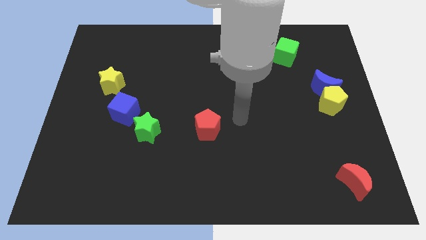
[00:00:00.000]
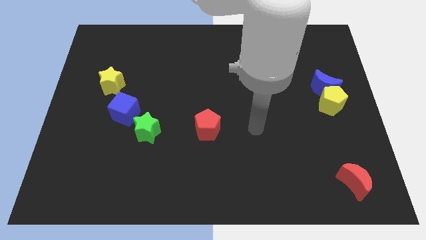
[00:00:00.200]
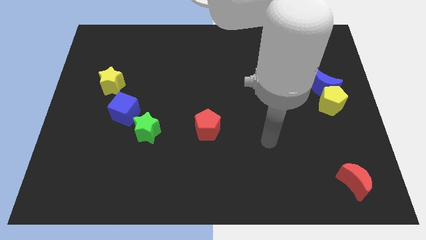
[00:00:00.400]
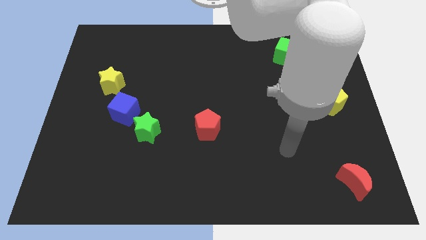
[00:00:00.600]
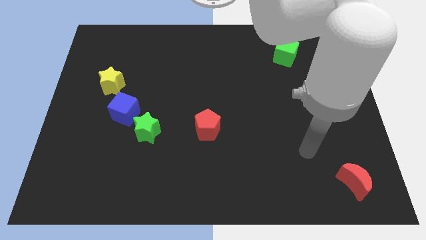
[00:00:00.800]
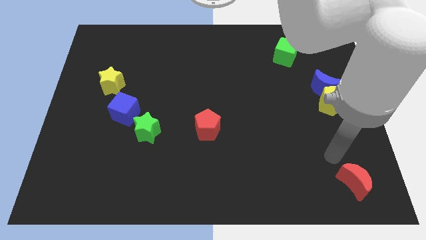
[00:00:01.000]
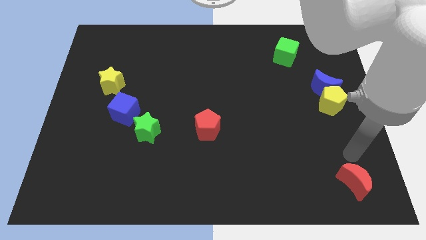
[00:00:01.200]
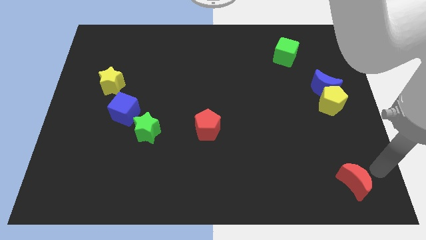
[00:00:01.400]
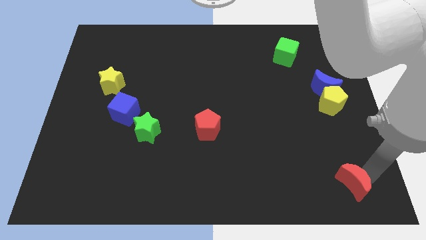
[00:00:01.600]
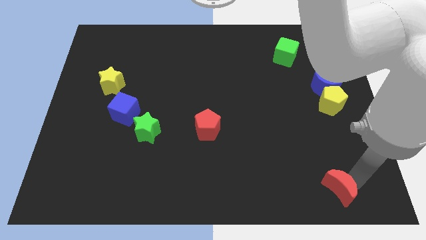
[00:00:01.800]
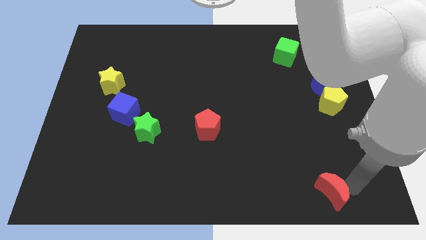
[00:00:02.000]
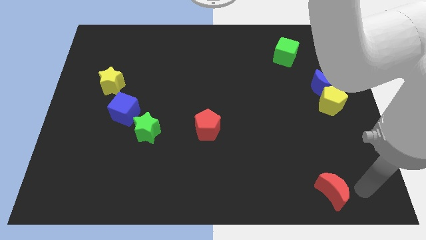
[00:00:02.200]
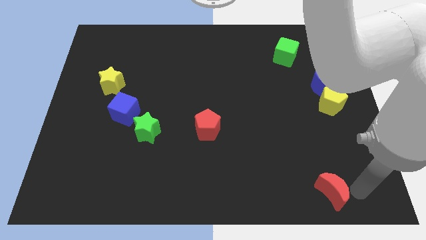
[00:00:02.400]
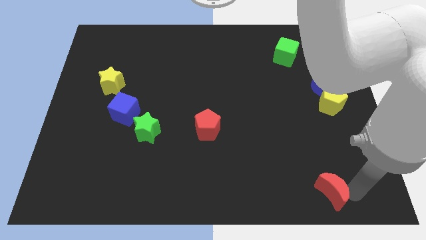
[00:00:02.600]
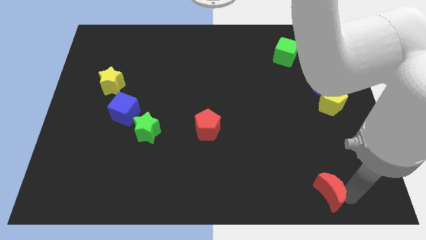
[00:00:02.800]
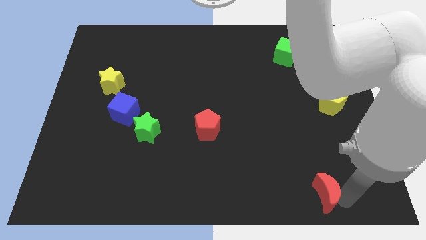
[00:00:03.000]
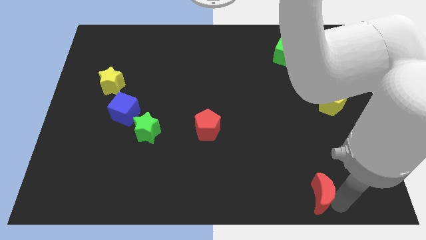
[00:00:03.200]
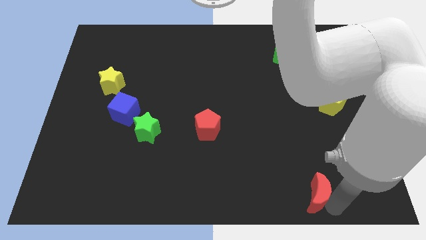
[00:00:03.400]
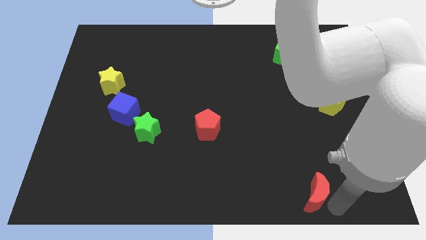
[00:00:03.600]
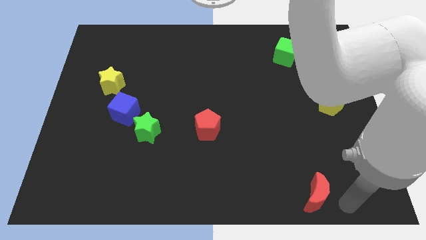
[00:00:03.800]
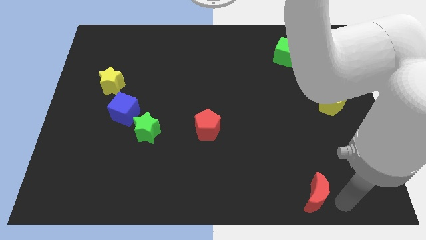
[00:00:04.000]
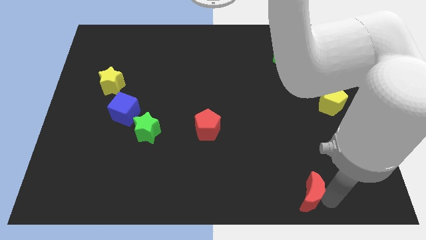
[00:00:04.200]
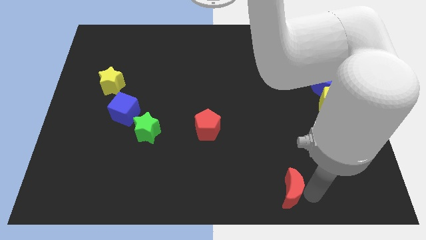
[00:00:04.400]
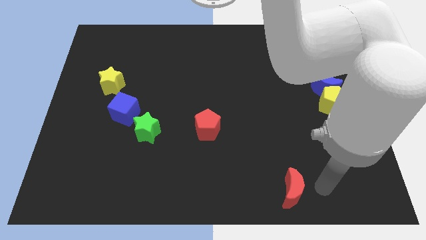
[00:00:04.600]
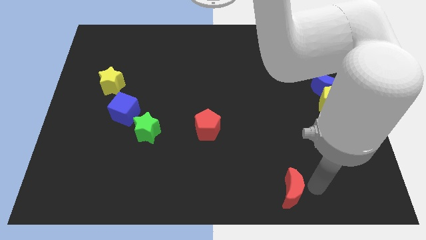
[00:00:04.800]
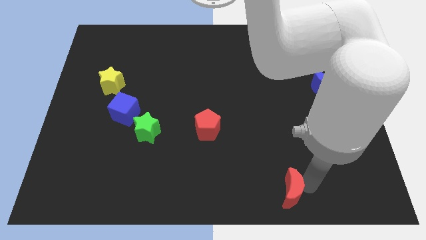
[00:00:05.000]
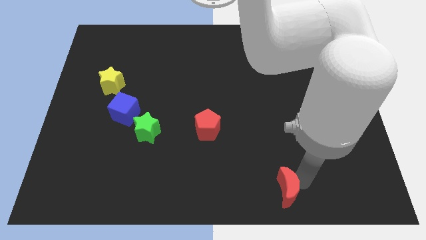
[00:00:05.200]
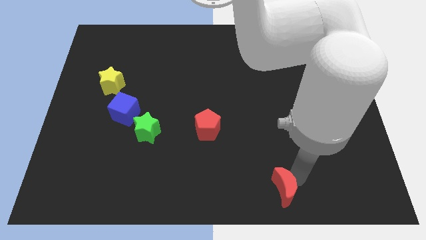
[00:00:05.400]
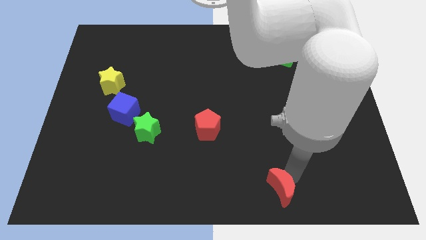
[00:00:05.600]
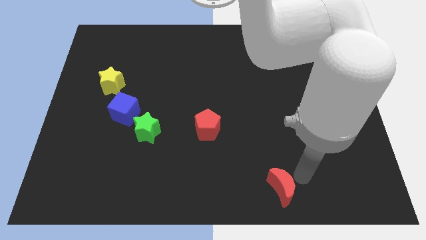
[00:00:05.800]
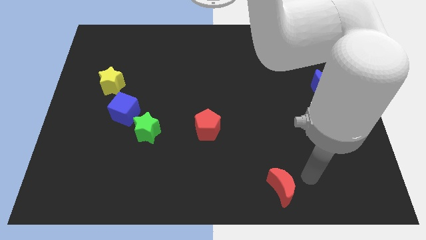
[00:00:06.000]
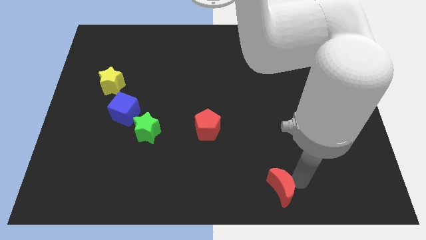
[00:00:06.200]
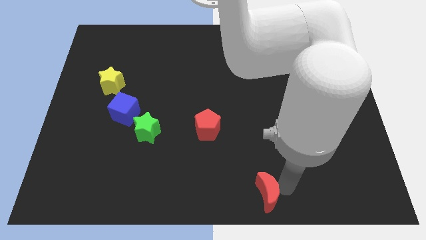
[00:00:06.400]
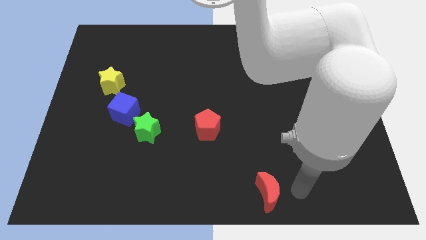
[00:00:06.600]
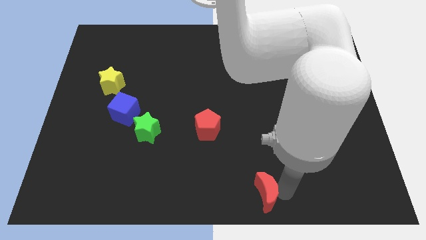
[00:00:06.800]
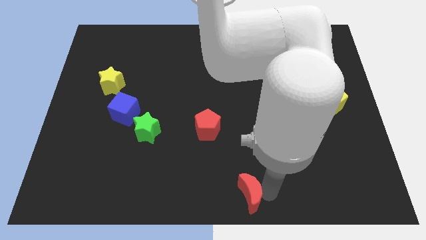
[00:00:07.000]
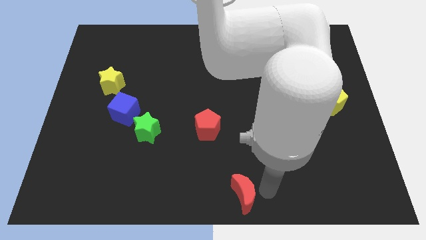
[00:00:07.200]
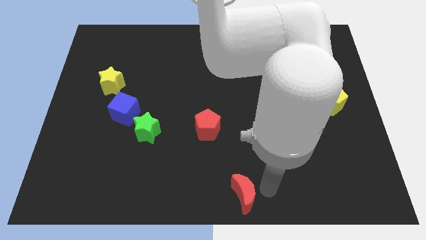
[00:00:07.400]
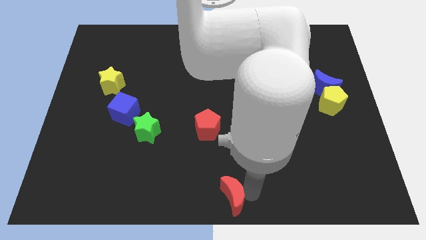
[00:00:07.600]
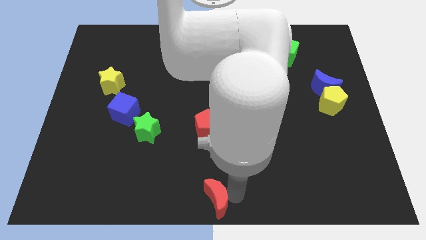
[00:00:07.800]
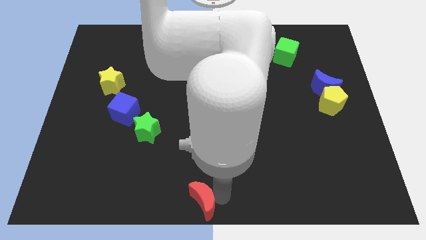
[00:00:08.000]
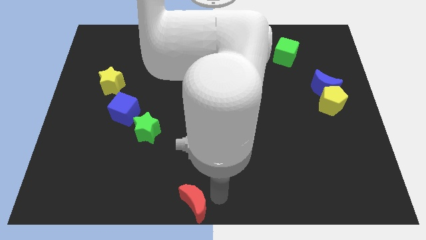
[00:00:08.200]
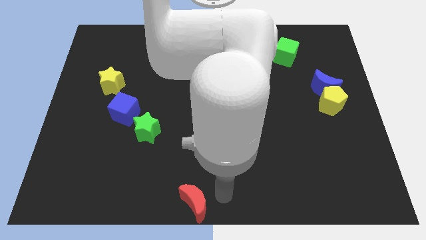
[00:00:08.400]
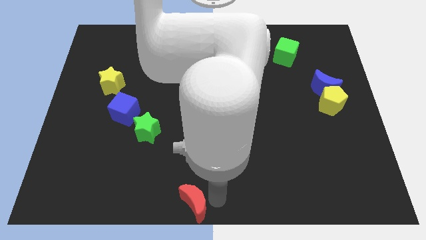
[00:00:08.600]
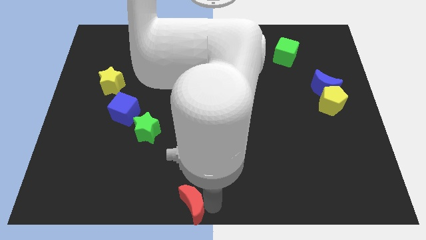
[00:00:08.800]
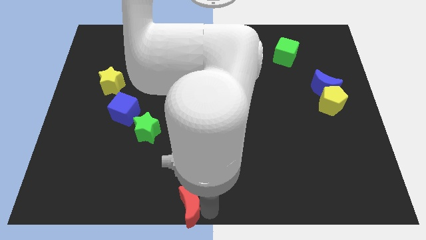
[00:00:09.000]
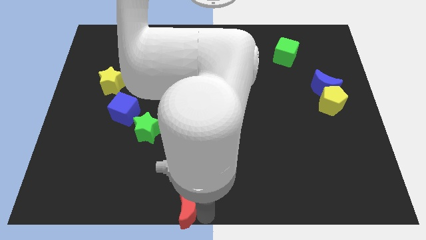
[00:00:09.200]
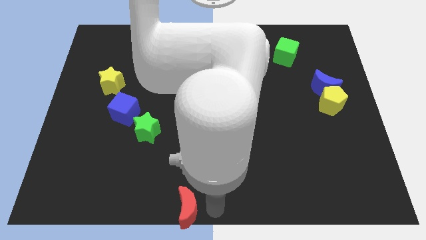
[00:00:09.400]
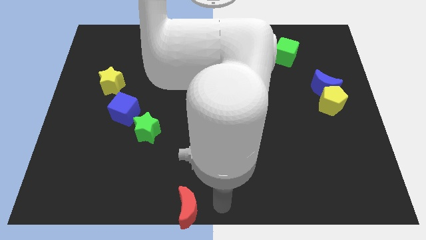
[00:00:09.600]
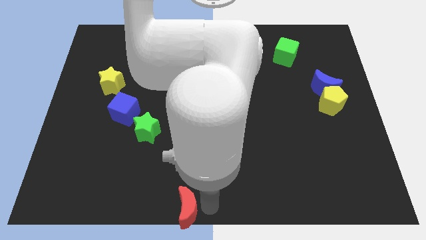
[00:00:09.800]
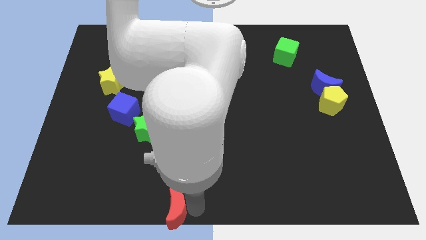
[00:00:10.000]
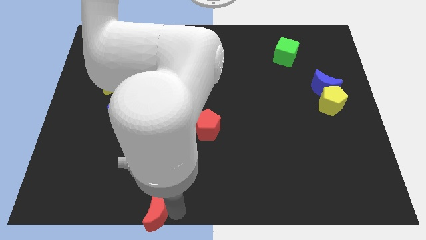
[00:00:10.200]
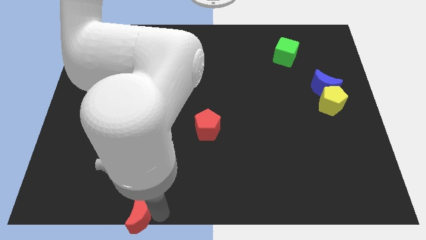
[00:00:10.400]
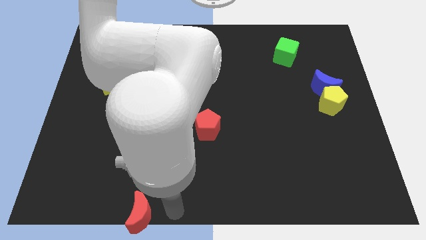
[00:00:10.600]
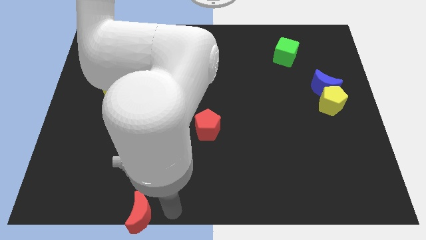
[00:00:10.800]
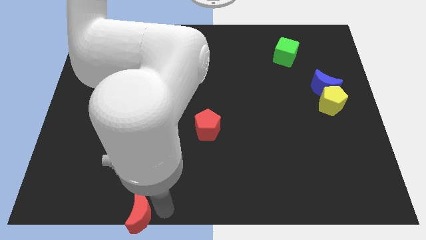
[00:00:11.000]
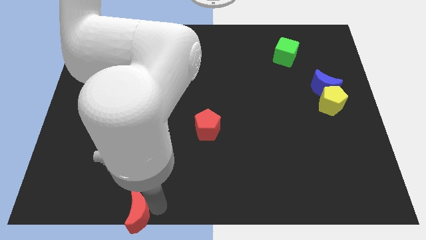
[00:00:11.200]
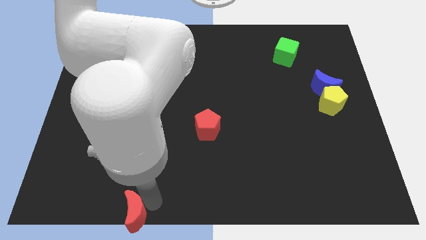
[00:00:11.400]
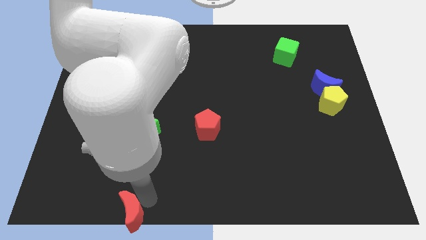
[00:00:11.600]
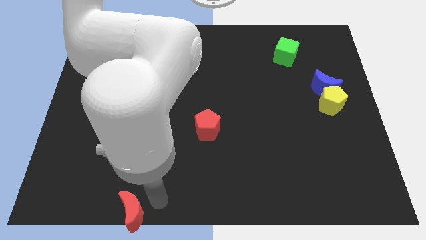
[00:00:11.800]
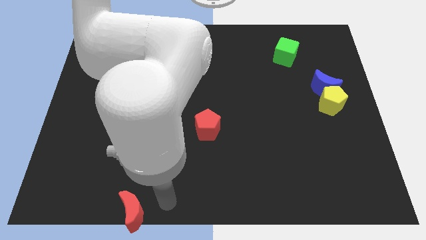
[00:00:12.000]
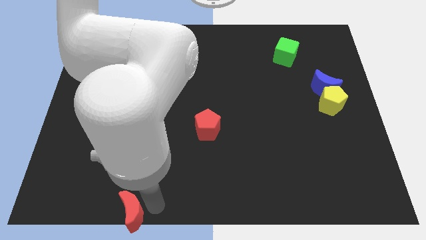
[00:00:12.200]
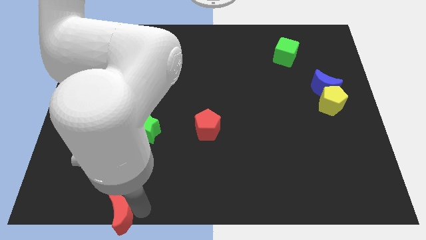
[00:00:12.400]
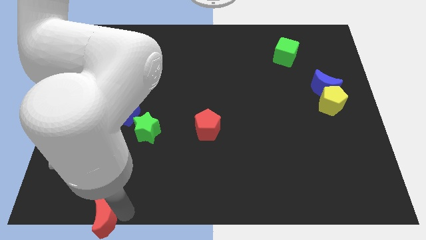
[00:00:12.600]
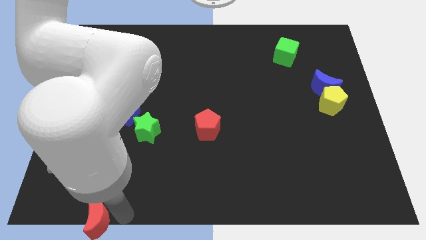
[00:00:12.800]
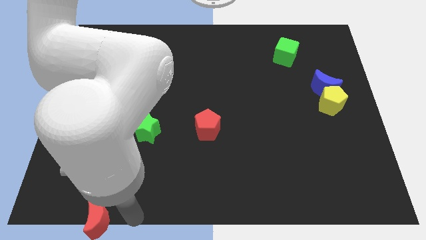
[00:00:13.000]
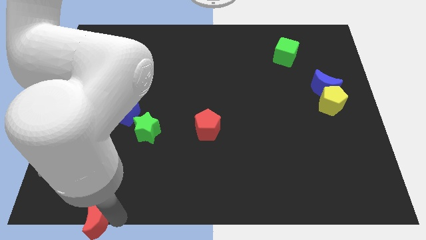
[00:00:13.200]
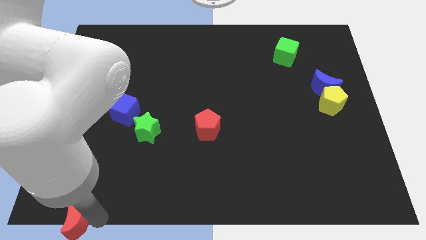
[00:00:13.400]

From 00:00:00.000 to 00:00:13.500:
move the red moon to the bottom left of the board
